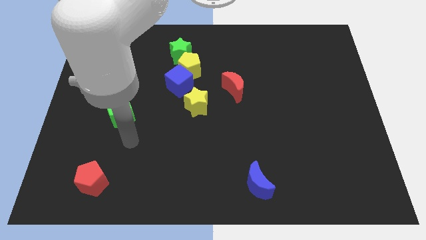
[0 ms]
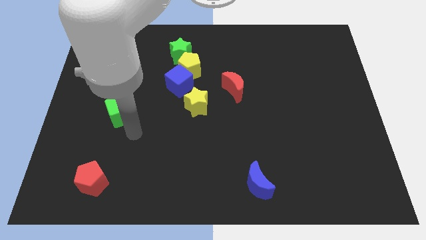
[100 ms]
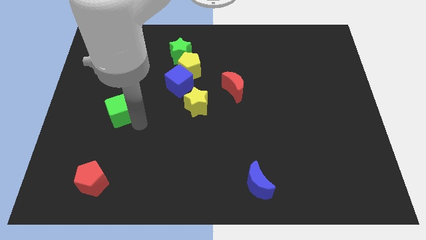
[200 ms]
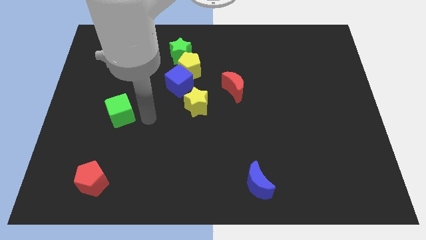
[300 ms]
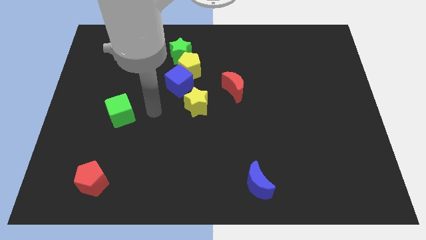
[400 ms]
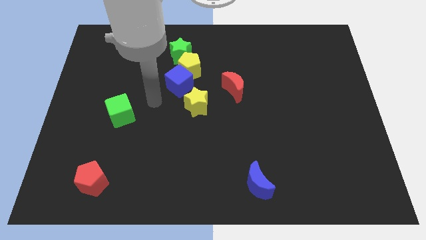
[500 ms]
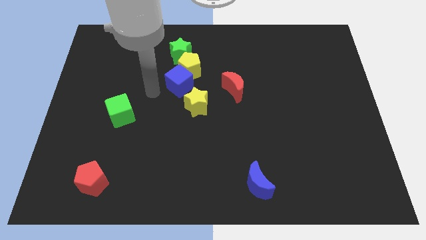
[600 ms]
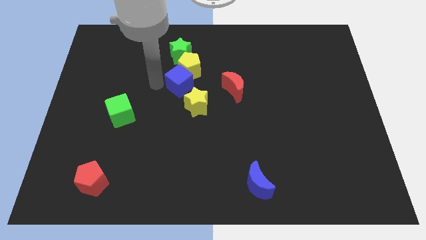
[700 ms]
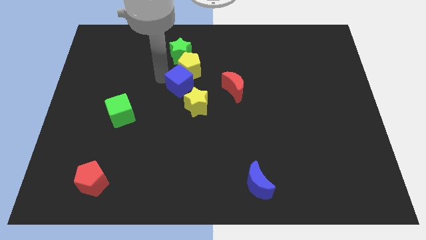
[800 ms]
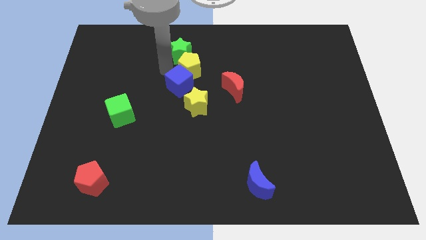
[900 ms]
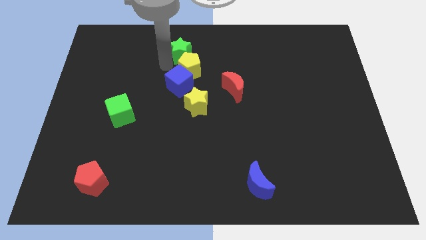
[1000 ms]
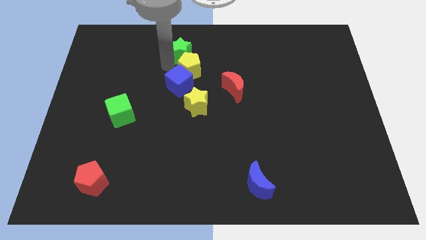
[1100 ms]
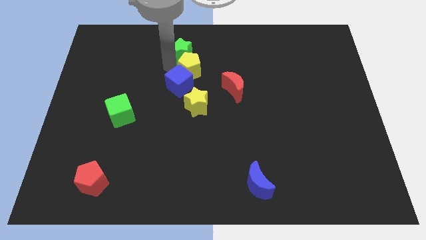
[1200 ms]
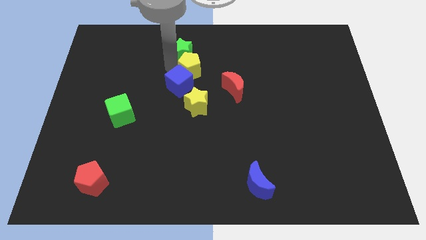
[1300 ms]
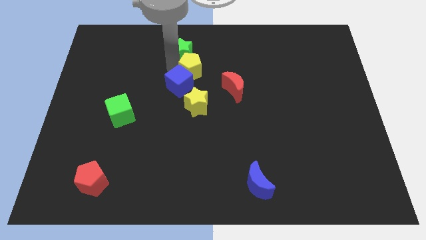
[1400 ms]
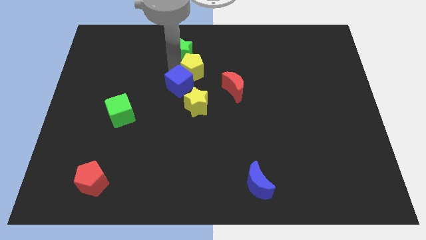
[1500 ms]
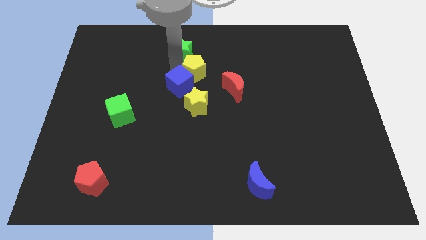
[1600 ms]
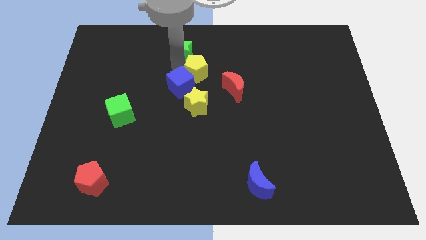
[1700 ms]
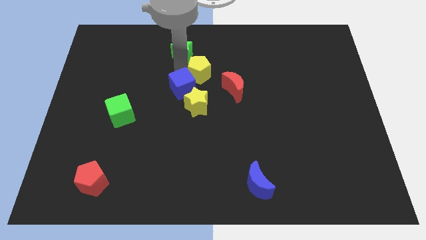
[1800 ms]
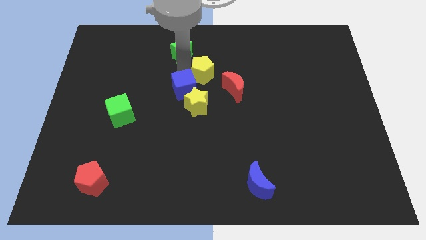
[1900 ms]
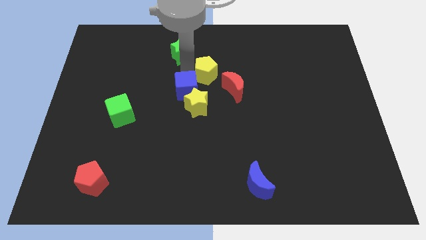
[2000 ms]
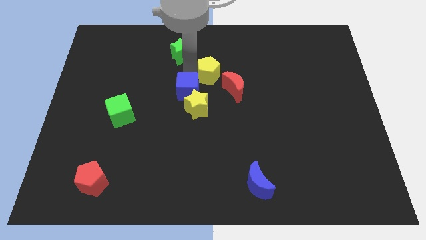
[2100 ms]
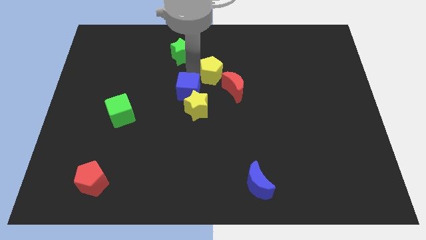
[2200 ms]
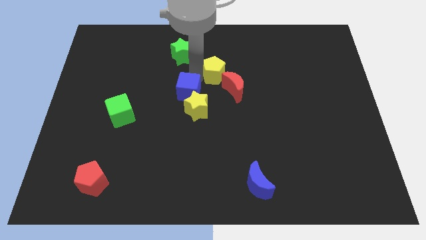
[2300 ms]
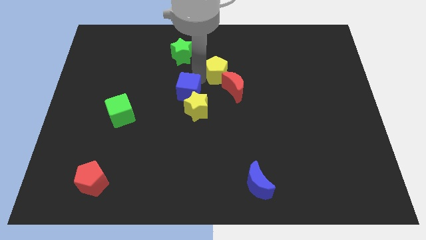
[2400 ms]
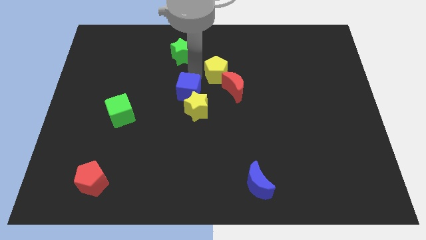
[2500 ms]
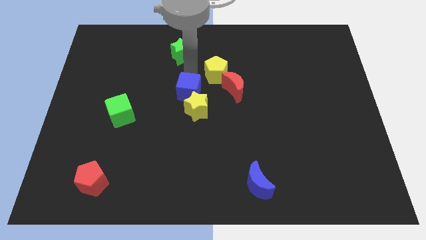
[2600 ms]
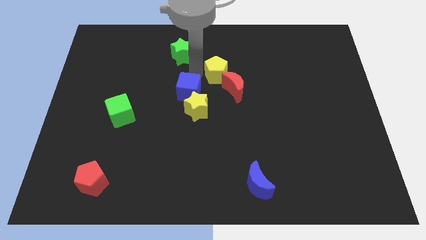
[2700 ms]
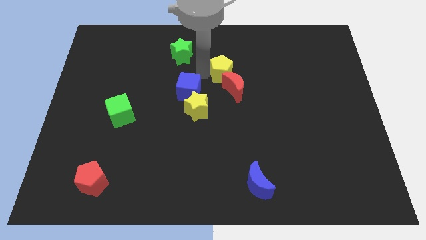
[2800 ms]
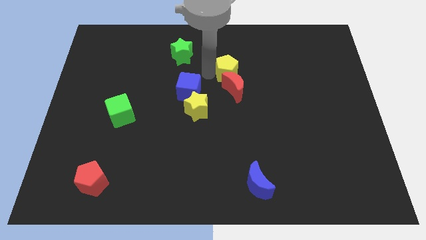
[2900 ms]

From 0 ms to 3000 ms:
separate the yellow pentagon from the blue cube and green star

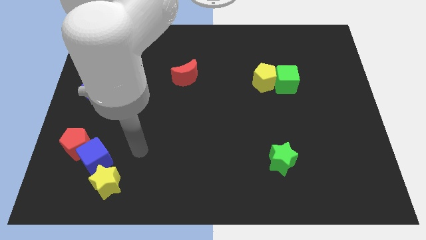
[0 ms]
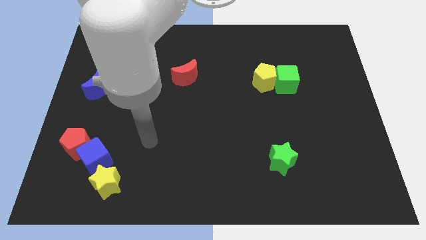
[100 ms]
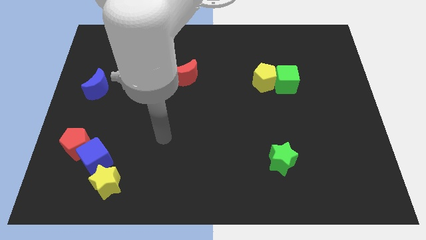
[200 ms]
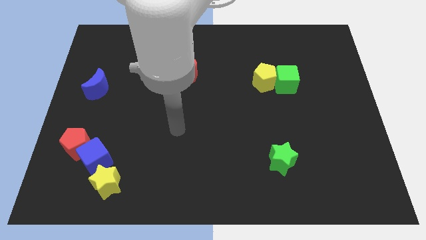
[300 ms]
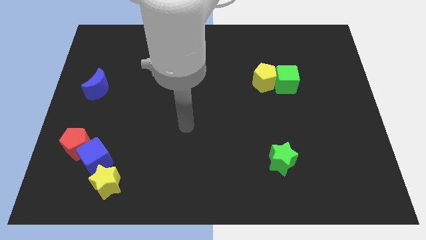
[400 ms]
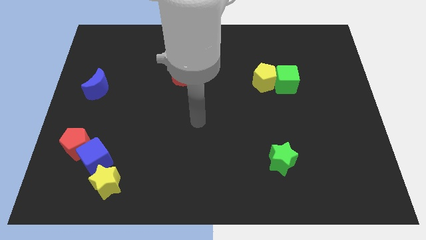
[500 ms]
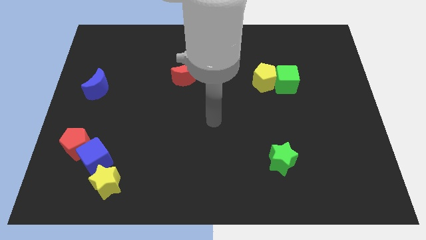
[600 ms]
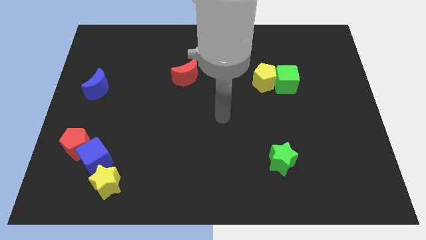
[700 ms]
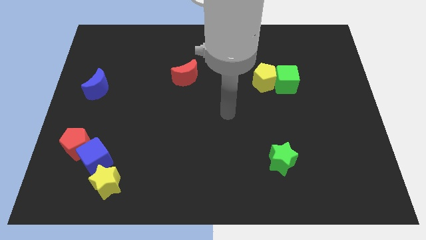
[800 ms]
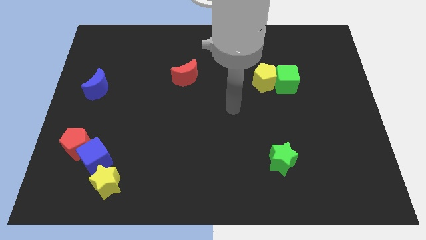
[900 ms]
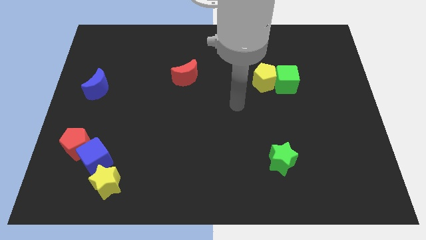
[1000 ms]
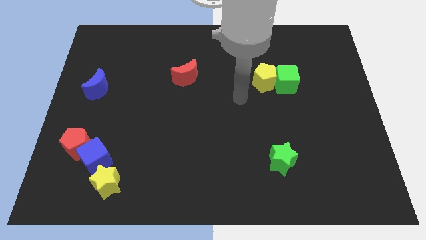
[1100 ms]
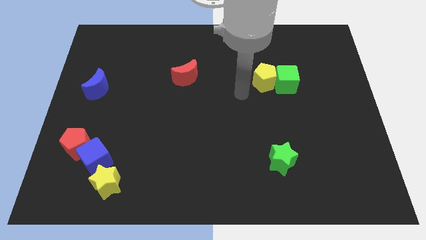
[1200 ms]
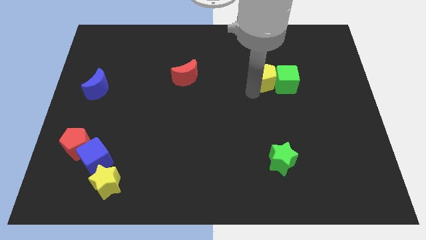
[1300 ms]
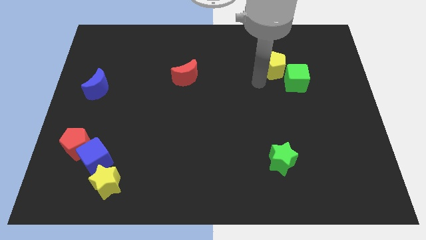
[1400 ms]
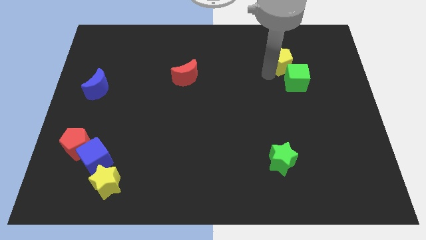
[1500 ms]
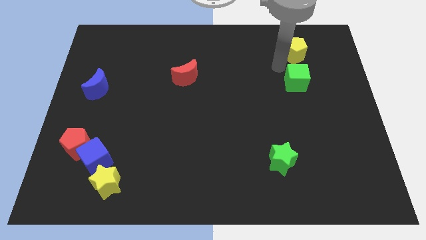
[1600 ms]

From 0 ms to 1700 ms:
move the green cube away from the yellow pentagon

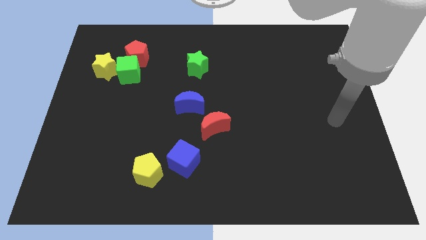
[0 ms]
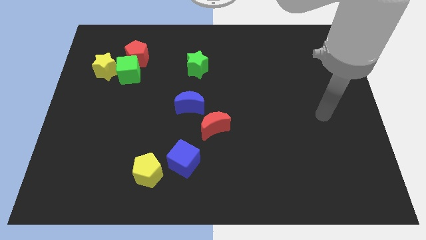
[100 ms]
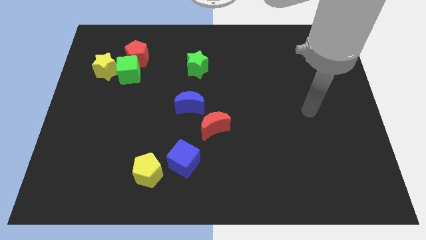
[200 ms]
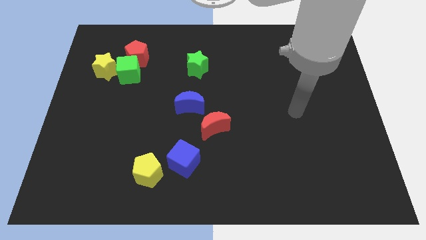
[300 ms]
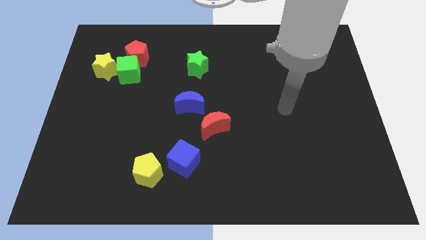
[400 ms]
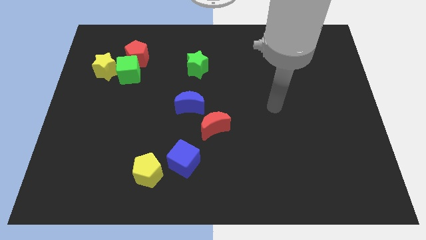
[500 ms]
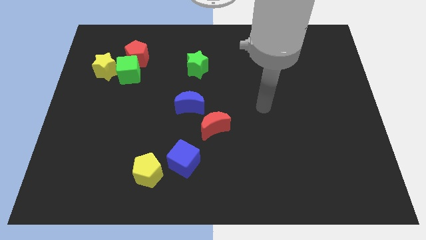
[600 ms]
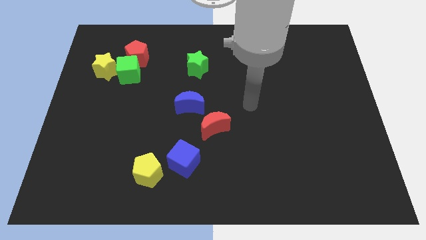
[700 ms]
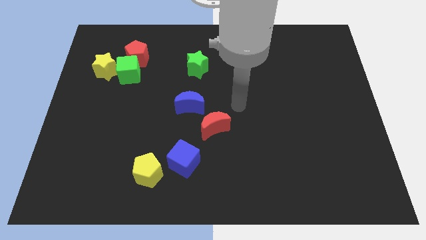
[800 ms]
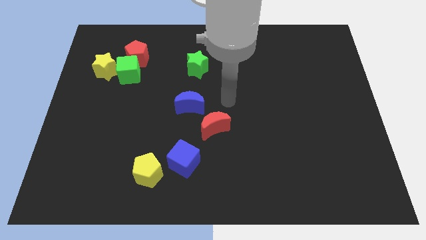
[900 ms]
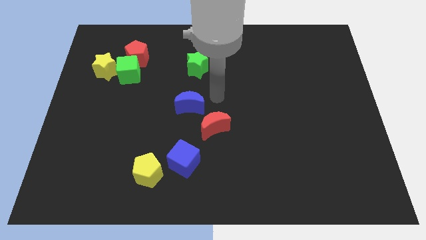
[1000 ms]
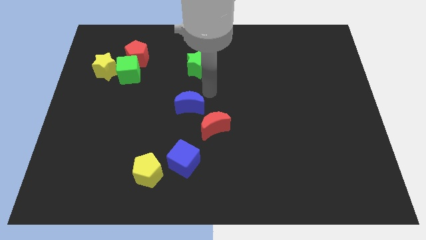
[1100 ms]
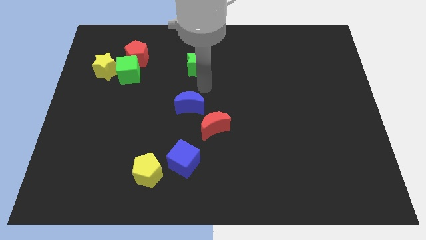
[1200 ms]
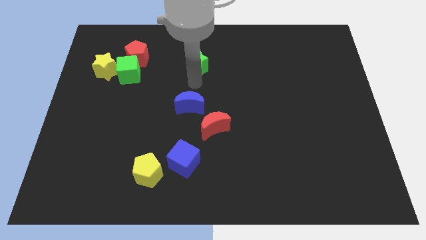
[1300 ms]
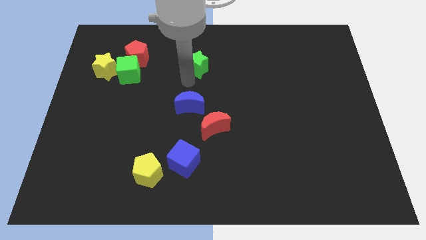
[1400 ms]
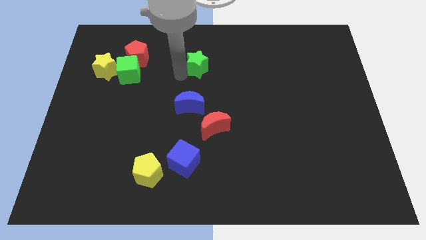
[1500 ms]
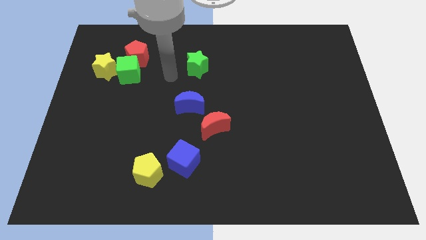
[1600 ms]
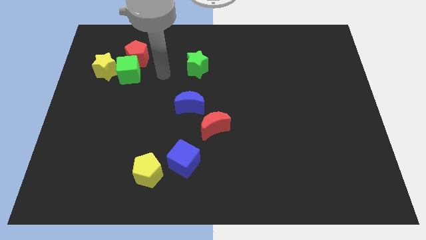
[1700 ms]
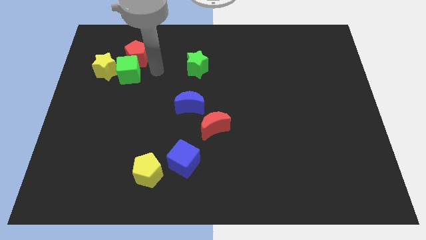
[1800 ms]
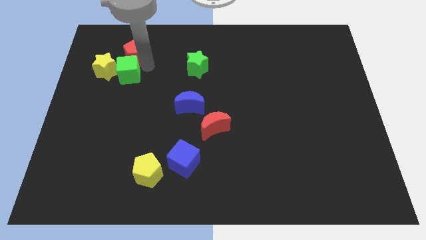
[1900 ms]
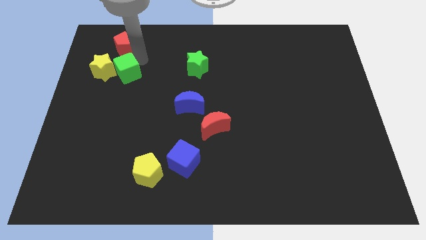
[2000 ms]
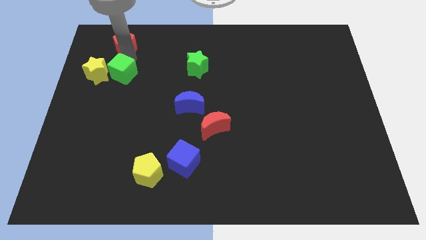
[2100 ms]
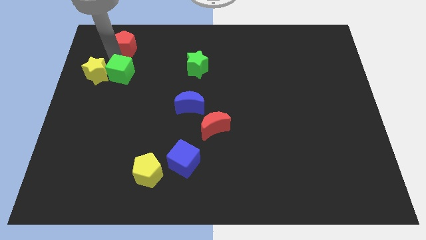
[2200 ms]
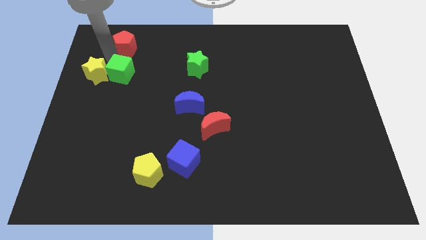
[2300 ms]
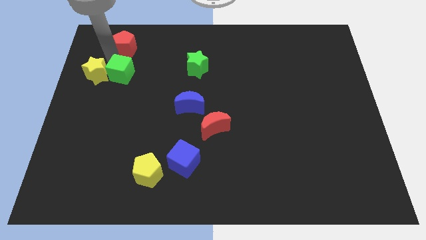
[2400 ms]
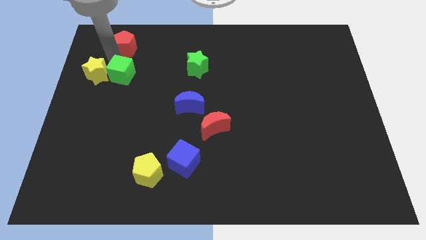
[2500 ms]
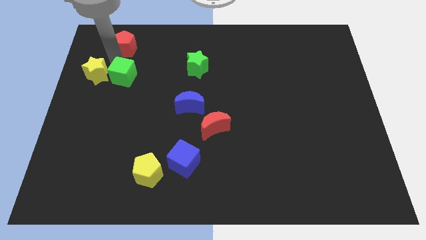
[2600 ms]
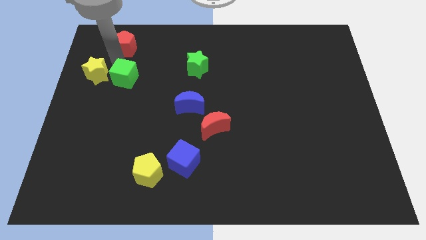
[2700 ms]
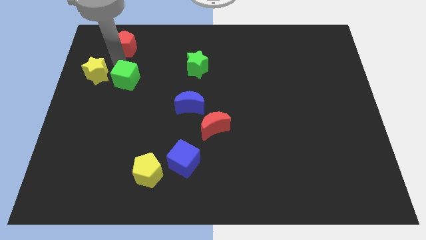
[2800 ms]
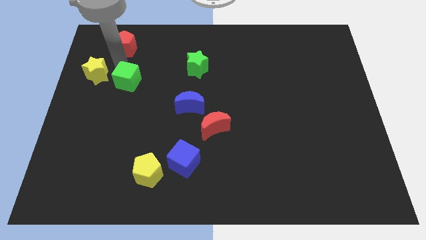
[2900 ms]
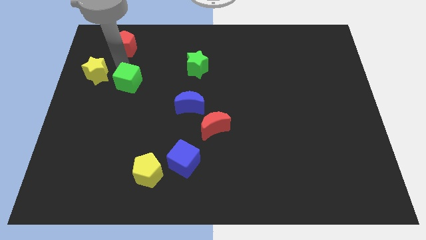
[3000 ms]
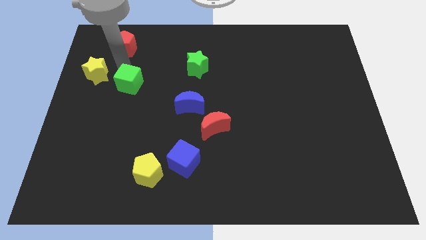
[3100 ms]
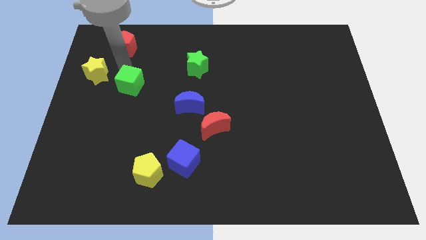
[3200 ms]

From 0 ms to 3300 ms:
separate the green cube from the red pentagon and yellow star

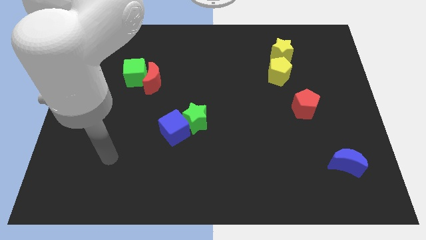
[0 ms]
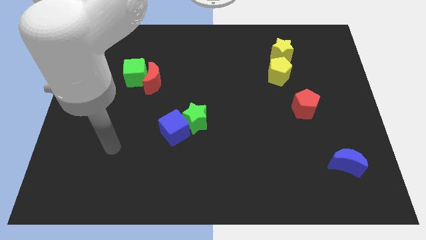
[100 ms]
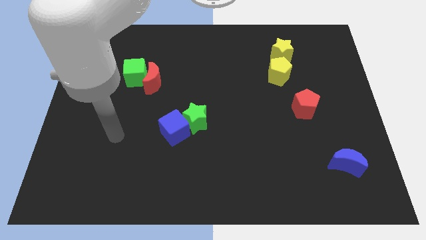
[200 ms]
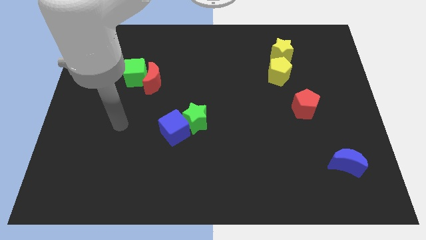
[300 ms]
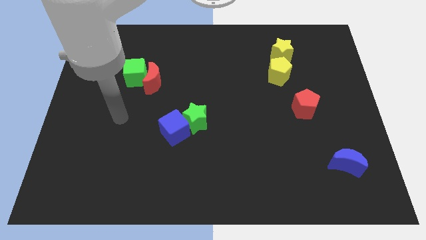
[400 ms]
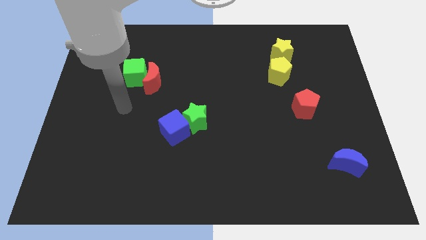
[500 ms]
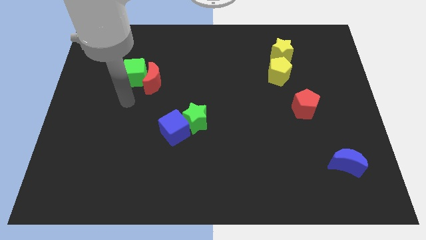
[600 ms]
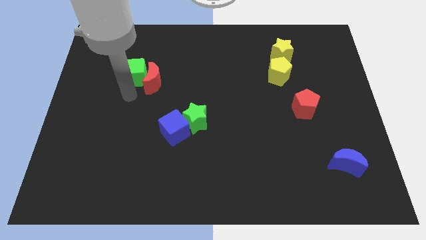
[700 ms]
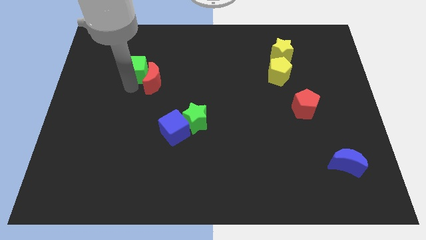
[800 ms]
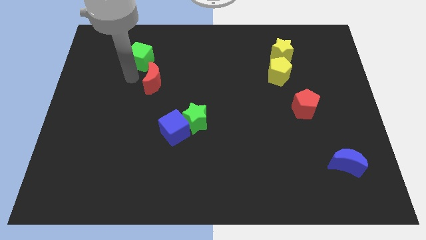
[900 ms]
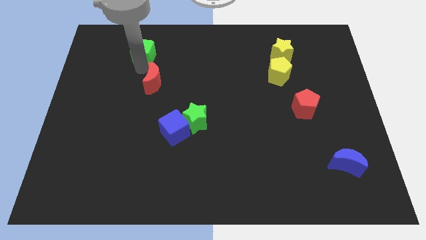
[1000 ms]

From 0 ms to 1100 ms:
move the red moon away from the green cube

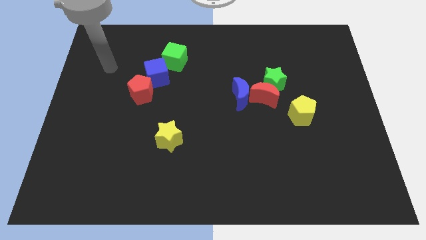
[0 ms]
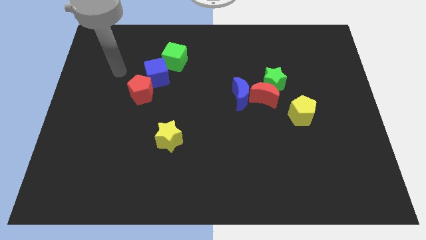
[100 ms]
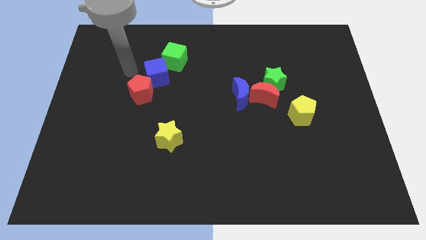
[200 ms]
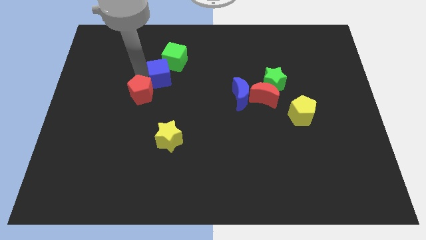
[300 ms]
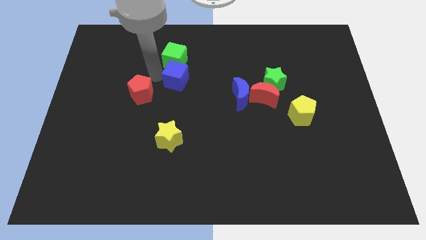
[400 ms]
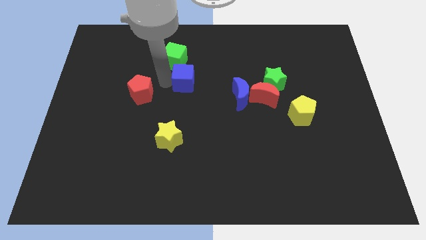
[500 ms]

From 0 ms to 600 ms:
pull the red pentagon apart from the blue cube
